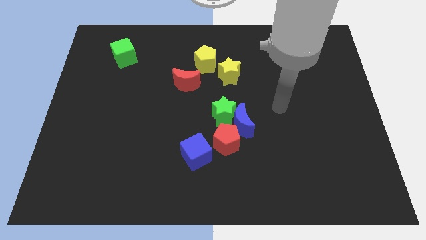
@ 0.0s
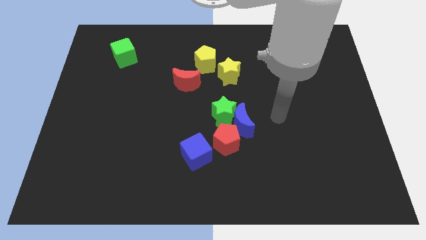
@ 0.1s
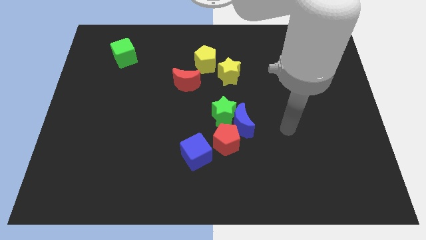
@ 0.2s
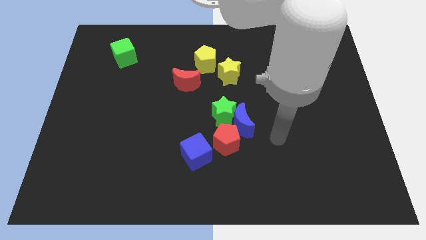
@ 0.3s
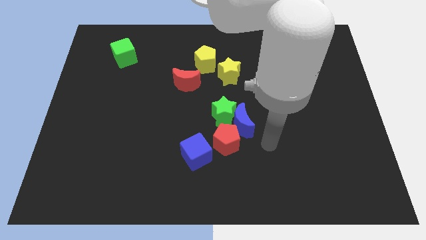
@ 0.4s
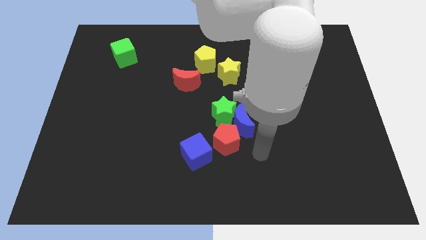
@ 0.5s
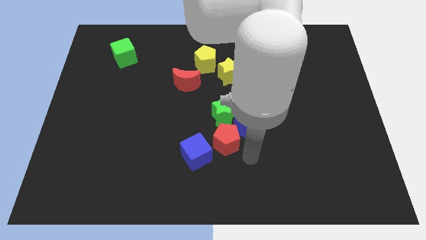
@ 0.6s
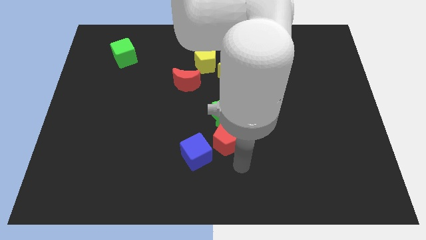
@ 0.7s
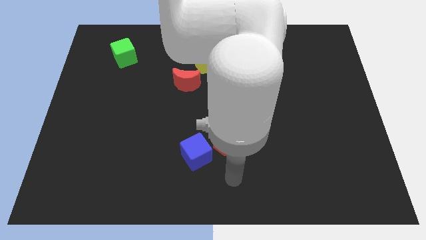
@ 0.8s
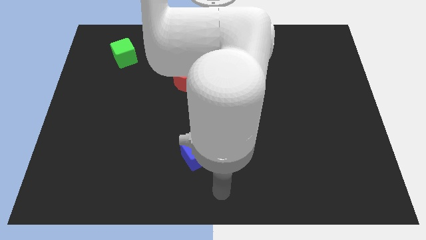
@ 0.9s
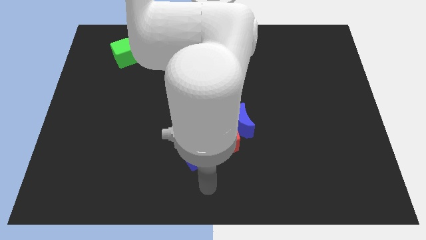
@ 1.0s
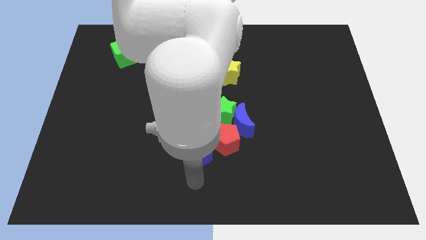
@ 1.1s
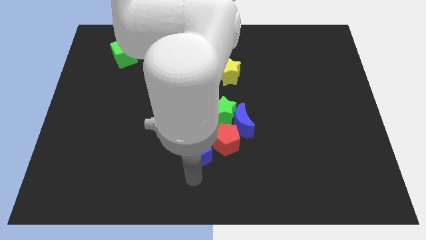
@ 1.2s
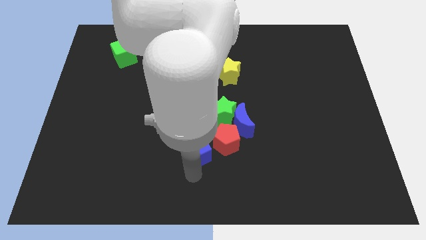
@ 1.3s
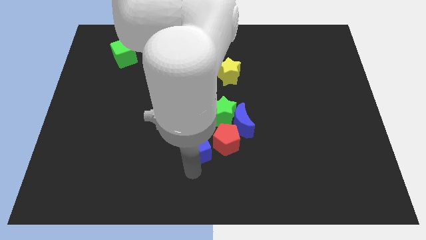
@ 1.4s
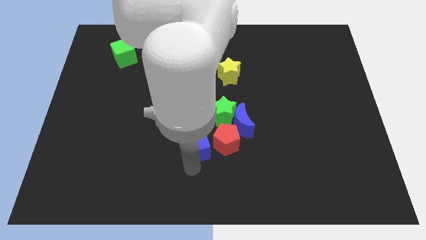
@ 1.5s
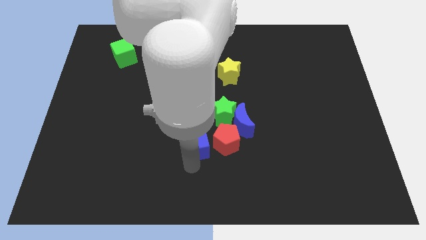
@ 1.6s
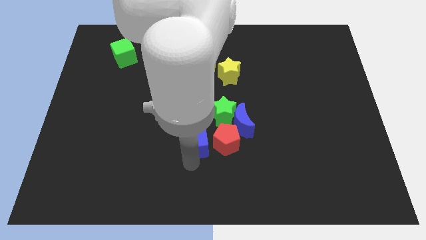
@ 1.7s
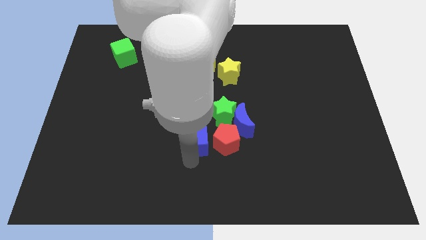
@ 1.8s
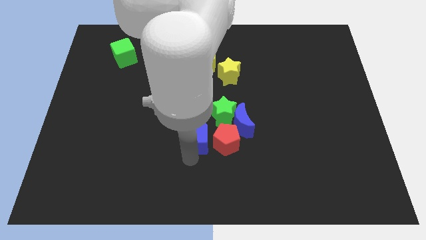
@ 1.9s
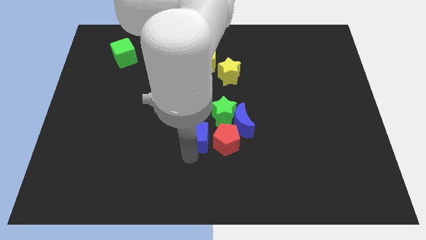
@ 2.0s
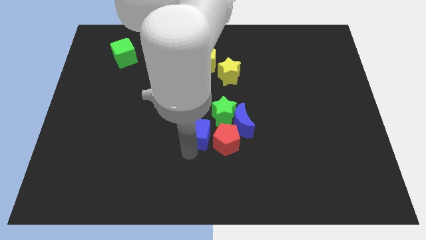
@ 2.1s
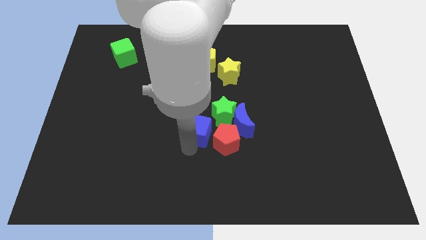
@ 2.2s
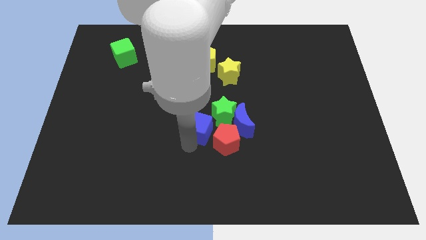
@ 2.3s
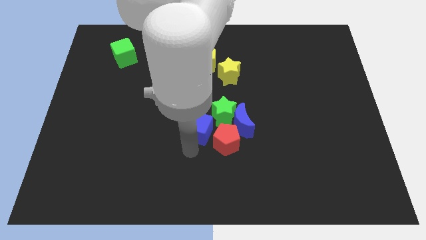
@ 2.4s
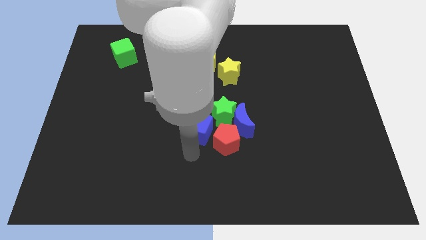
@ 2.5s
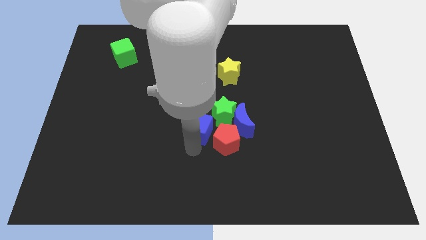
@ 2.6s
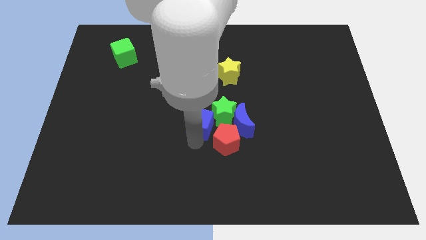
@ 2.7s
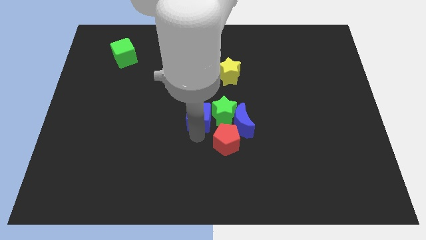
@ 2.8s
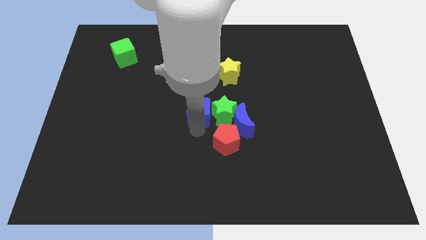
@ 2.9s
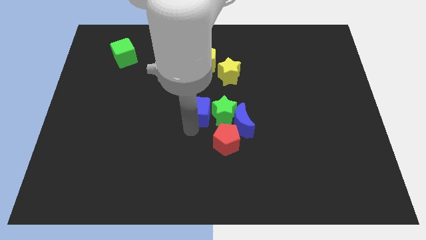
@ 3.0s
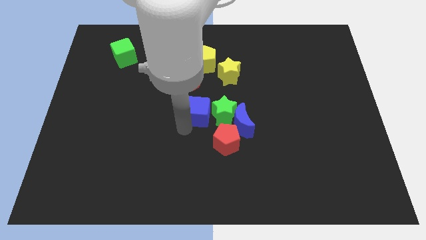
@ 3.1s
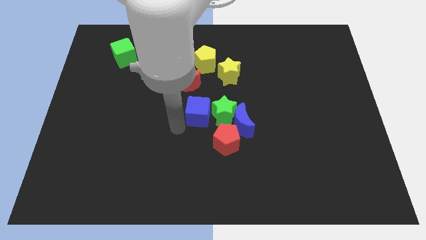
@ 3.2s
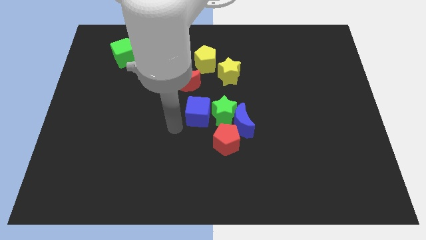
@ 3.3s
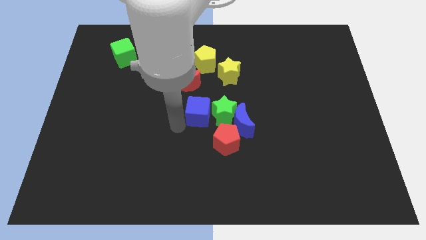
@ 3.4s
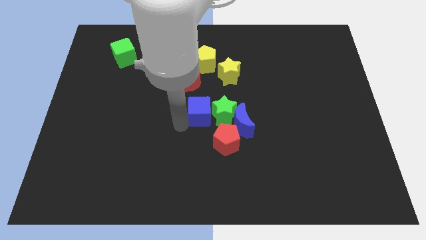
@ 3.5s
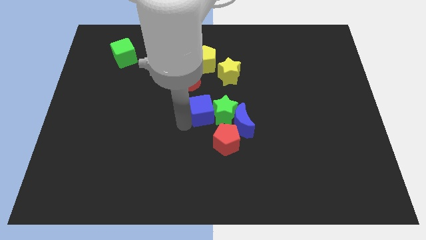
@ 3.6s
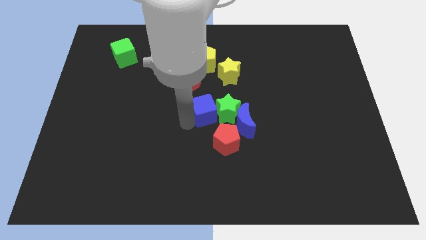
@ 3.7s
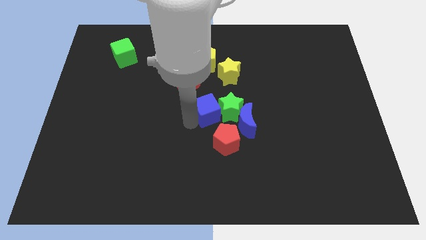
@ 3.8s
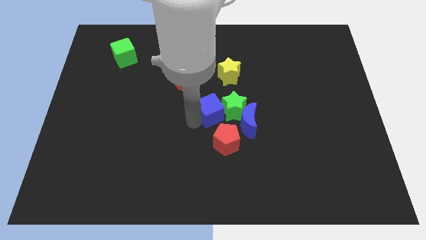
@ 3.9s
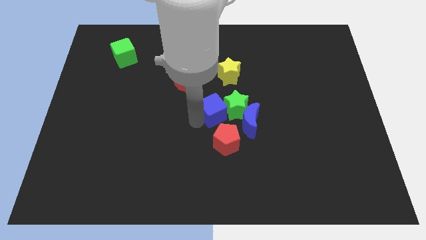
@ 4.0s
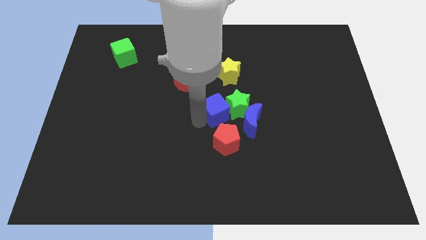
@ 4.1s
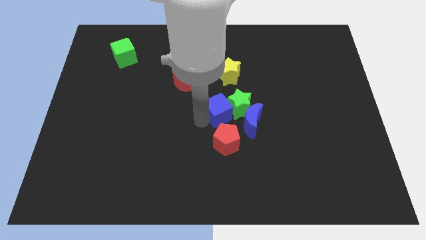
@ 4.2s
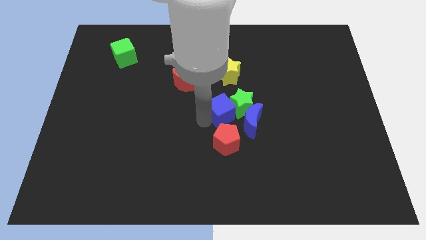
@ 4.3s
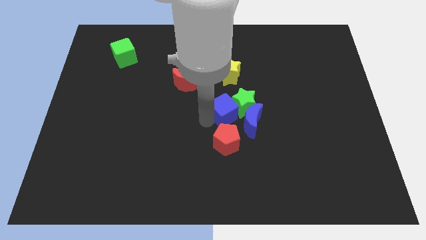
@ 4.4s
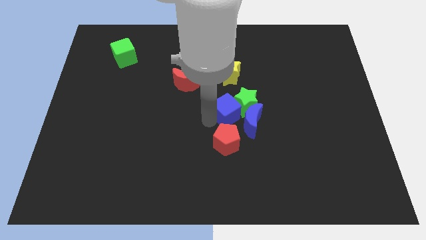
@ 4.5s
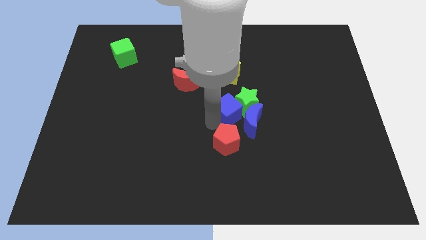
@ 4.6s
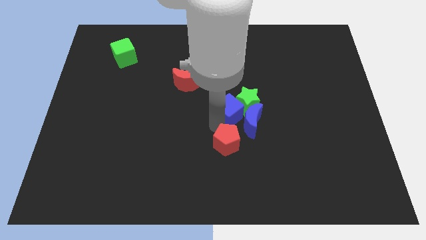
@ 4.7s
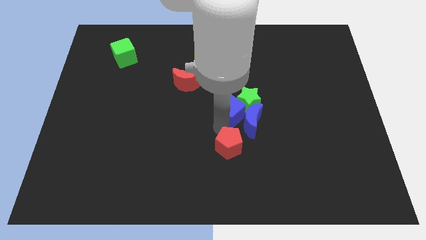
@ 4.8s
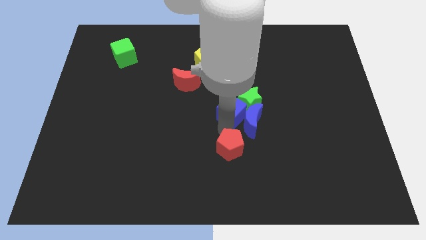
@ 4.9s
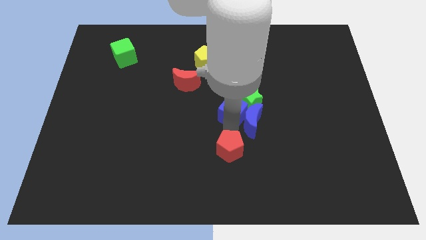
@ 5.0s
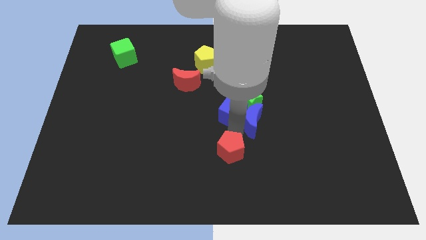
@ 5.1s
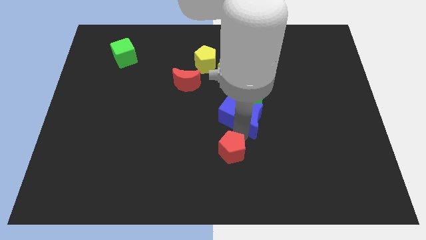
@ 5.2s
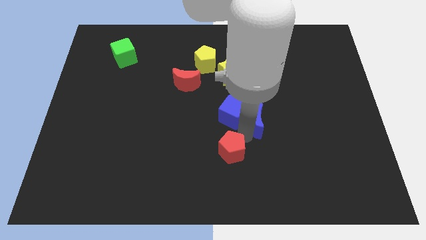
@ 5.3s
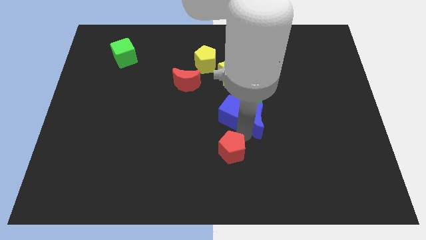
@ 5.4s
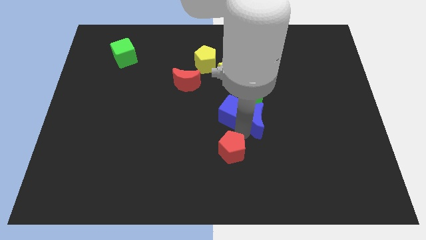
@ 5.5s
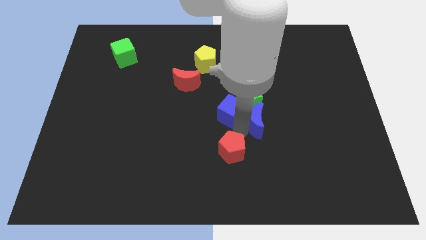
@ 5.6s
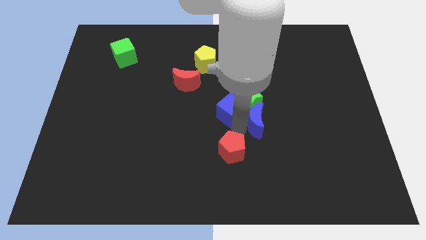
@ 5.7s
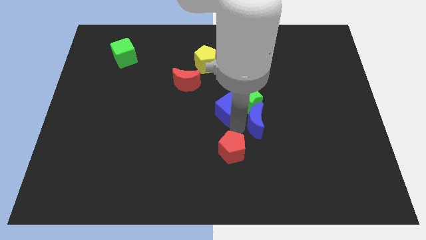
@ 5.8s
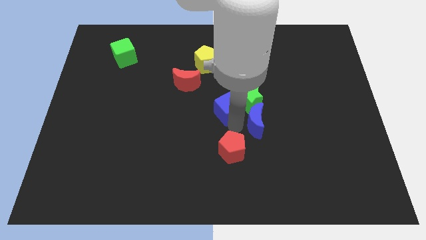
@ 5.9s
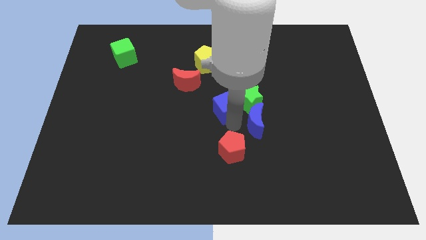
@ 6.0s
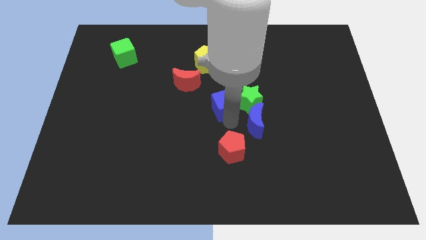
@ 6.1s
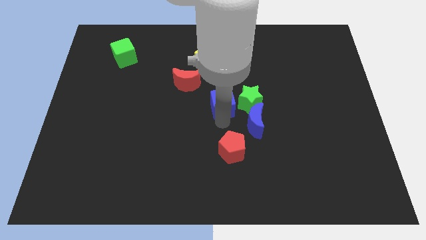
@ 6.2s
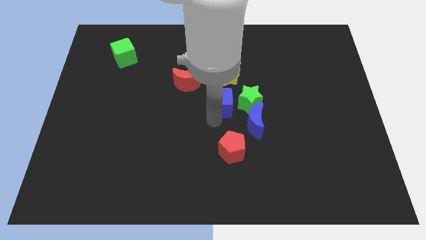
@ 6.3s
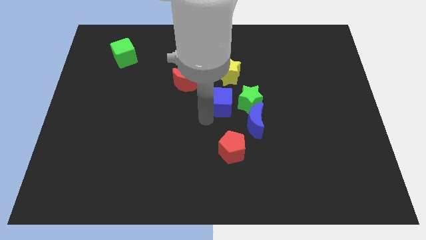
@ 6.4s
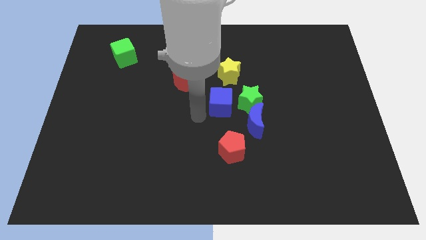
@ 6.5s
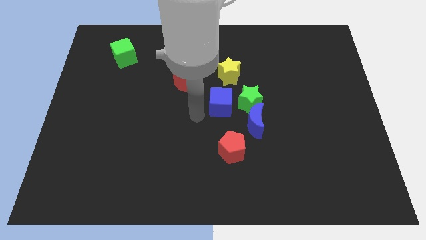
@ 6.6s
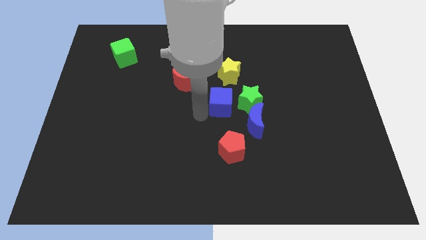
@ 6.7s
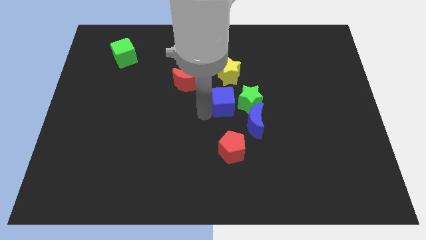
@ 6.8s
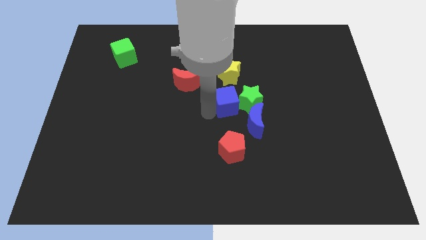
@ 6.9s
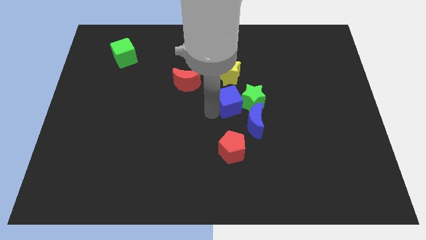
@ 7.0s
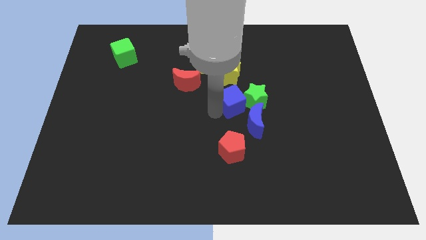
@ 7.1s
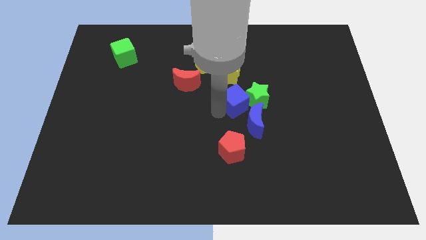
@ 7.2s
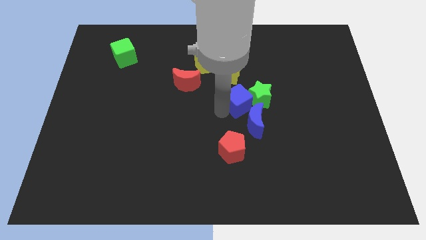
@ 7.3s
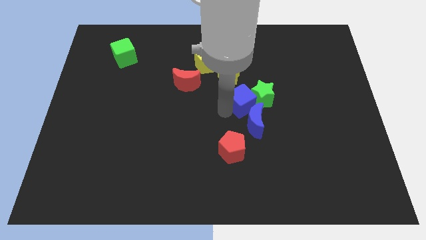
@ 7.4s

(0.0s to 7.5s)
move the blue cube to the bottom right of the yellow star

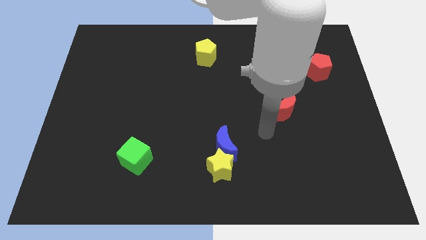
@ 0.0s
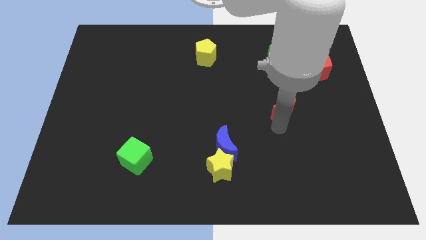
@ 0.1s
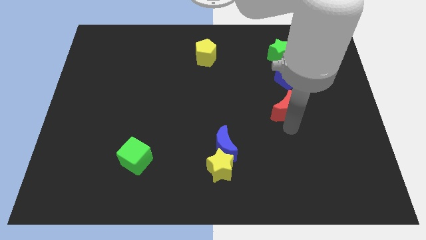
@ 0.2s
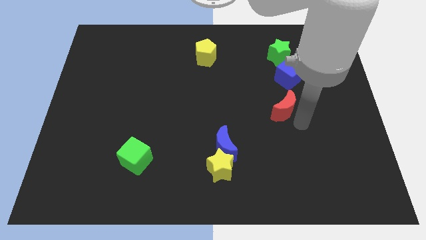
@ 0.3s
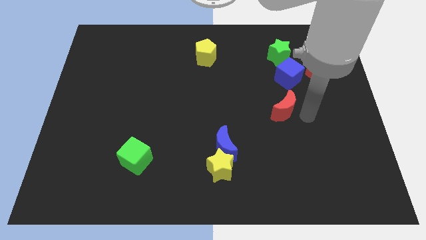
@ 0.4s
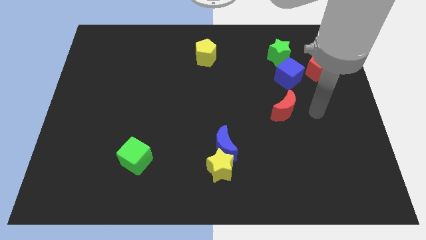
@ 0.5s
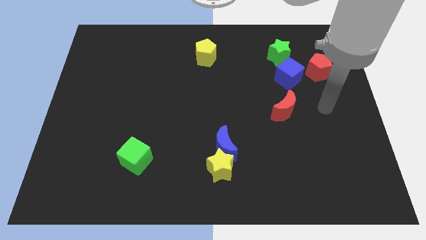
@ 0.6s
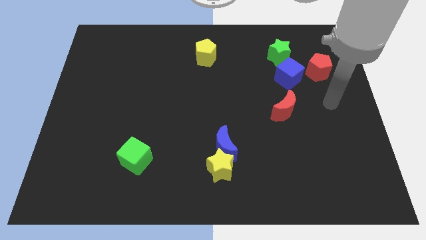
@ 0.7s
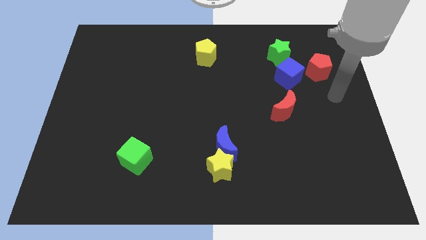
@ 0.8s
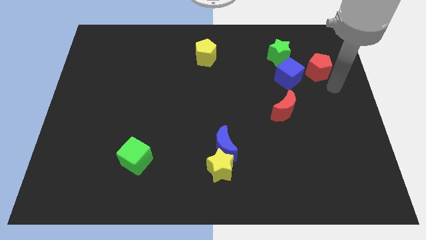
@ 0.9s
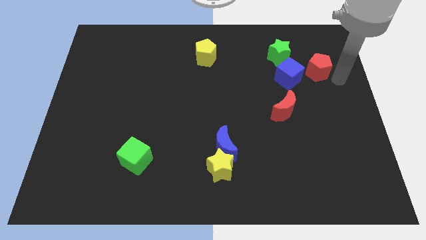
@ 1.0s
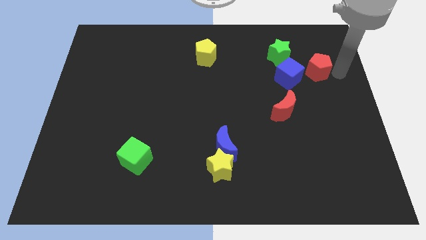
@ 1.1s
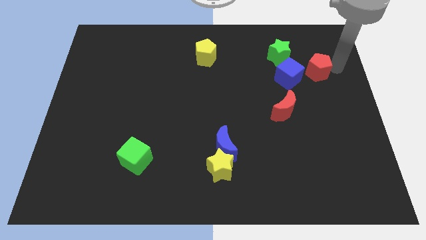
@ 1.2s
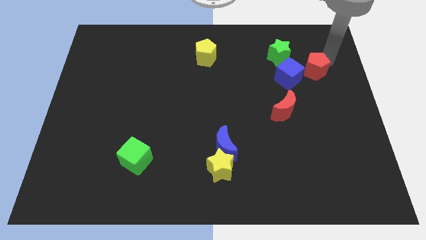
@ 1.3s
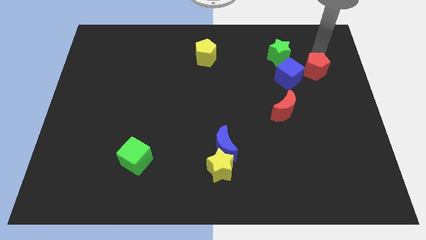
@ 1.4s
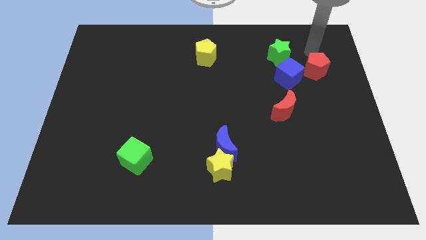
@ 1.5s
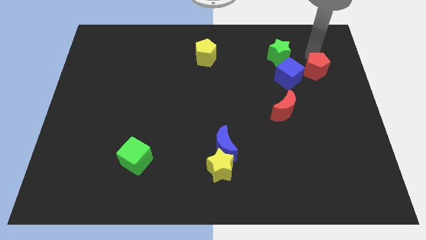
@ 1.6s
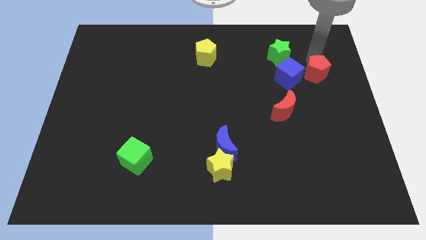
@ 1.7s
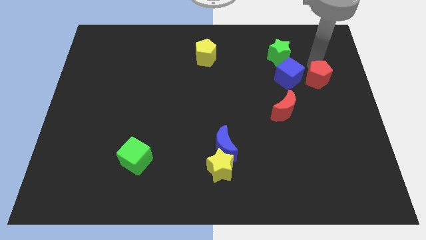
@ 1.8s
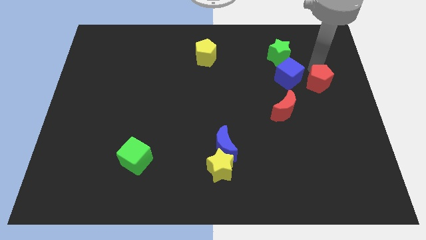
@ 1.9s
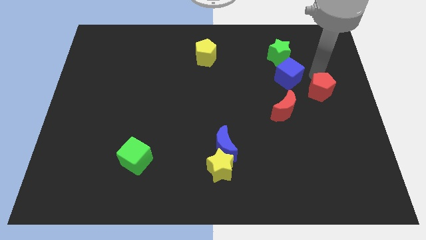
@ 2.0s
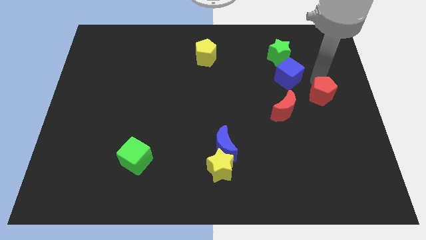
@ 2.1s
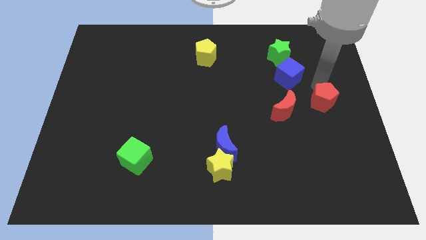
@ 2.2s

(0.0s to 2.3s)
put the red pentagon right of the red moon
